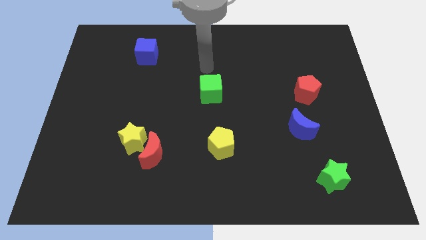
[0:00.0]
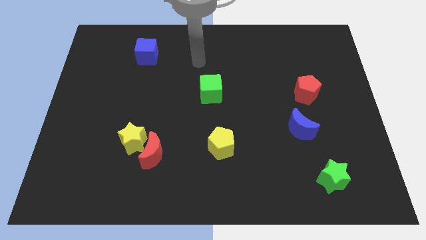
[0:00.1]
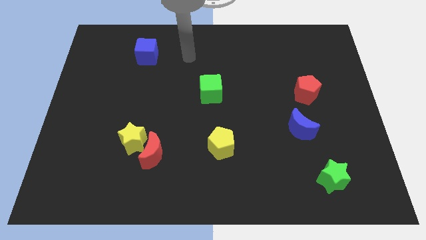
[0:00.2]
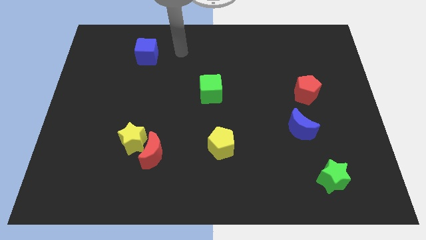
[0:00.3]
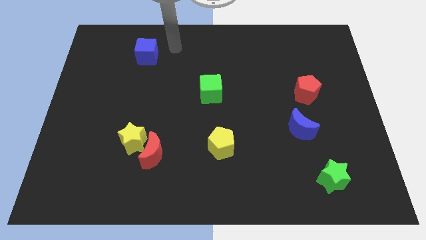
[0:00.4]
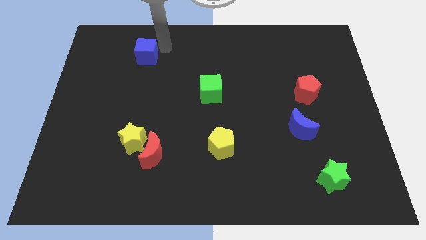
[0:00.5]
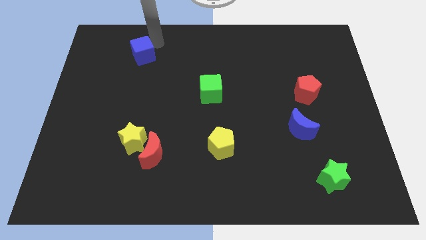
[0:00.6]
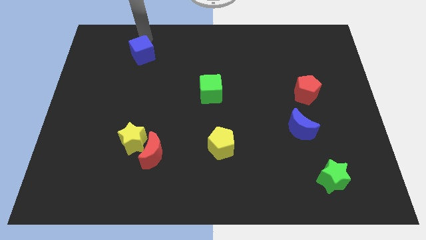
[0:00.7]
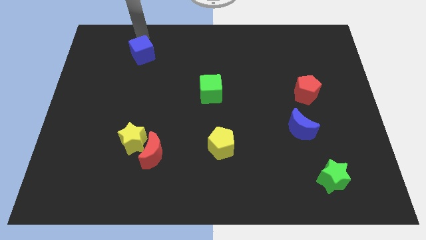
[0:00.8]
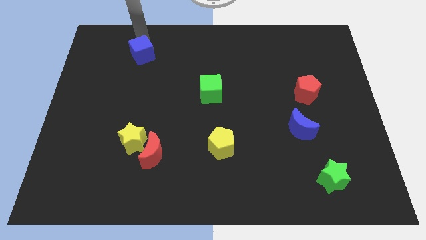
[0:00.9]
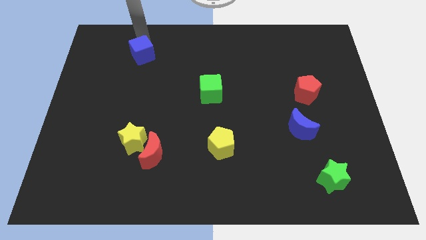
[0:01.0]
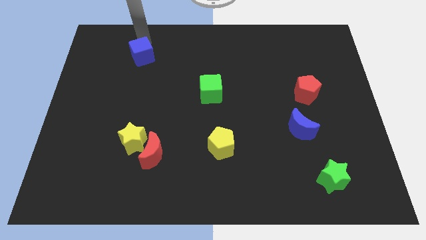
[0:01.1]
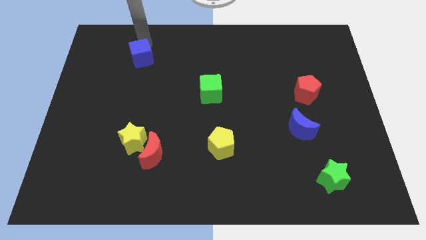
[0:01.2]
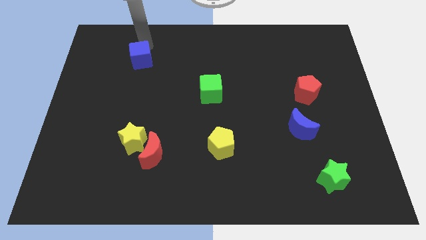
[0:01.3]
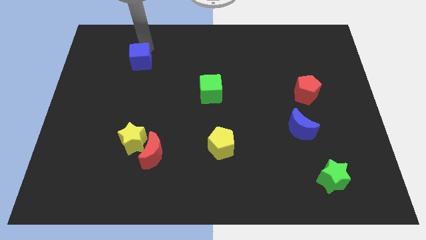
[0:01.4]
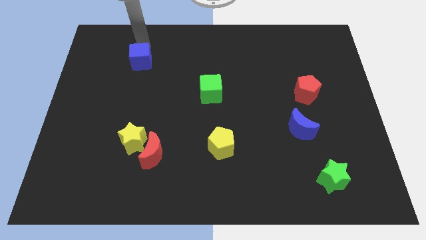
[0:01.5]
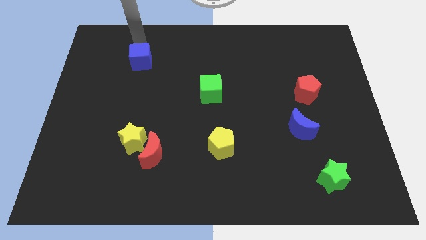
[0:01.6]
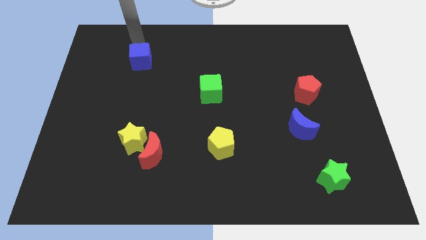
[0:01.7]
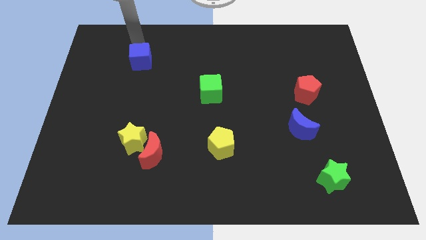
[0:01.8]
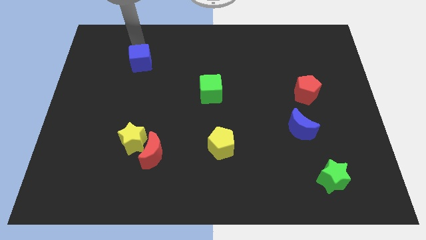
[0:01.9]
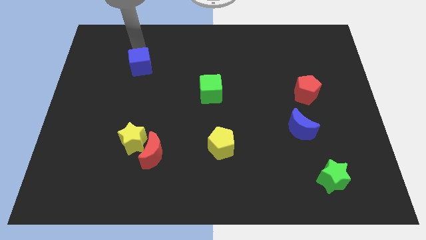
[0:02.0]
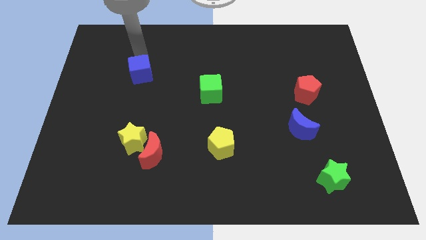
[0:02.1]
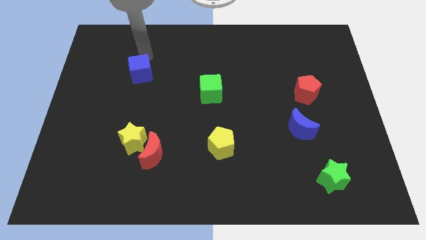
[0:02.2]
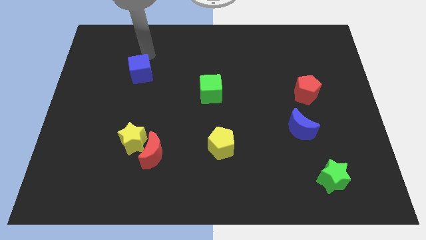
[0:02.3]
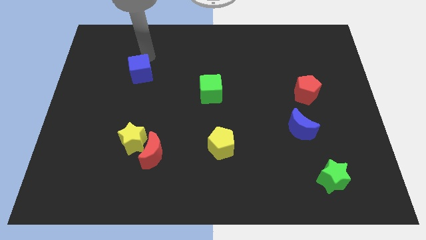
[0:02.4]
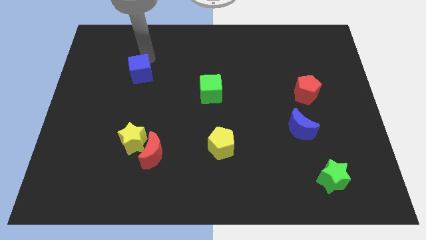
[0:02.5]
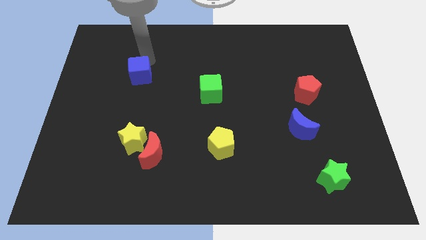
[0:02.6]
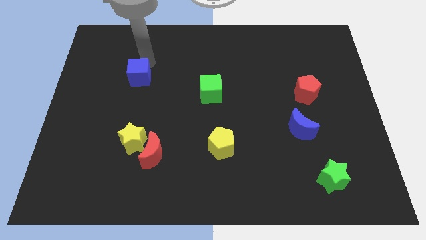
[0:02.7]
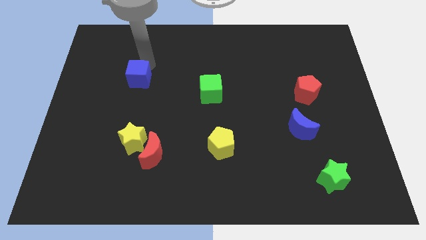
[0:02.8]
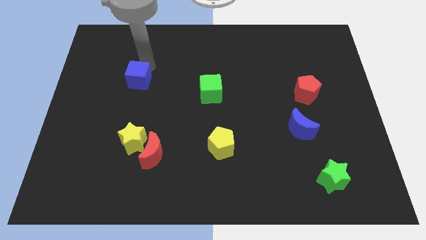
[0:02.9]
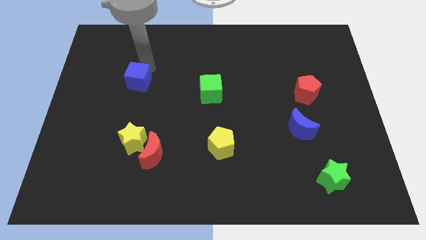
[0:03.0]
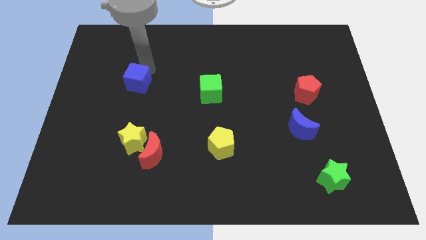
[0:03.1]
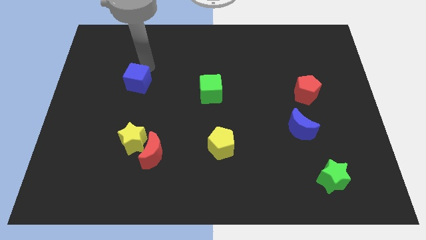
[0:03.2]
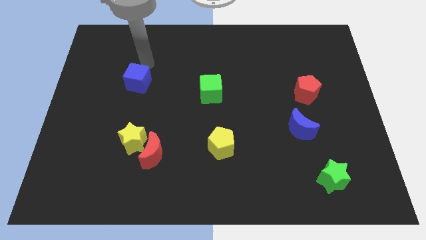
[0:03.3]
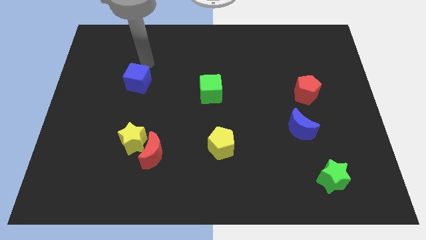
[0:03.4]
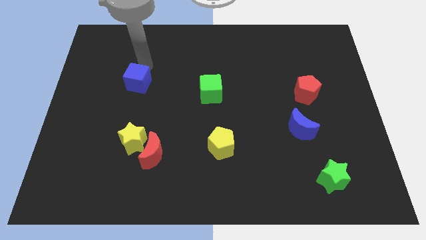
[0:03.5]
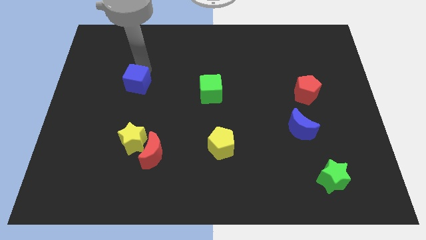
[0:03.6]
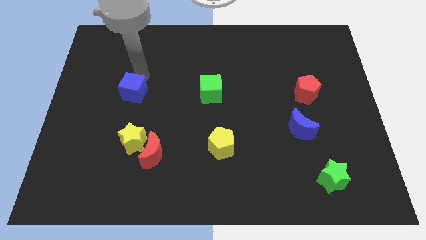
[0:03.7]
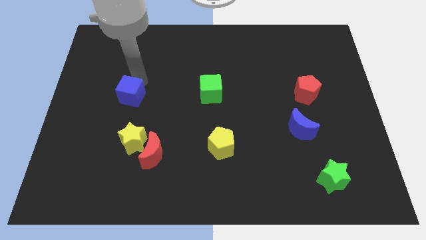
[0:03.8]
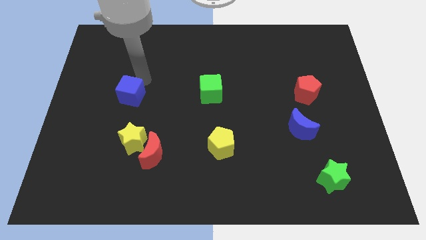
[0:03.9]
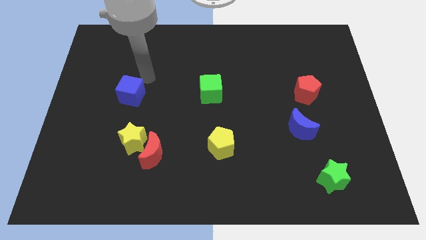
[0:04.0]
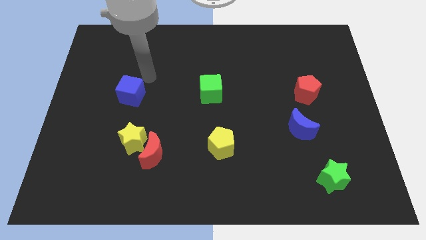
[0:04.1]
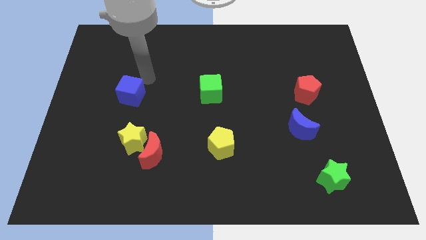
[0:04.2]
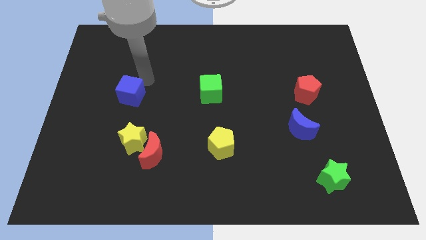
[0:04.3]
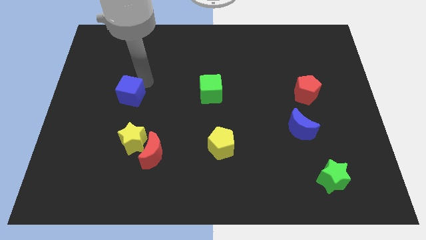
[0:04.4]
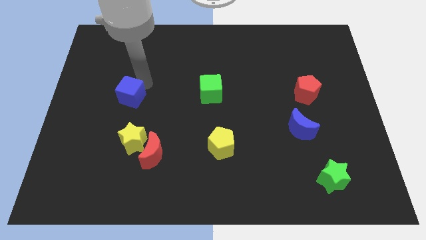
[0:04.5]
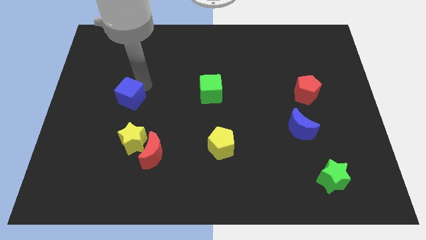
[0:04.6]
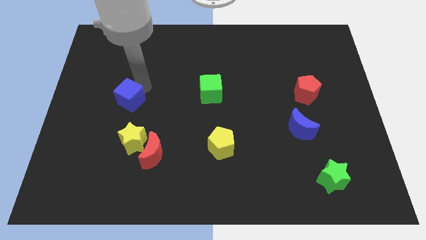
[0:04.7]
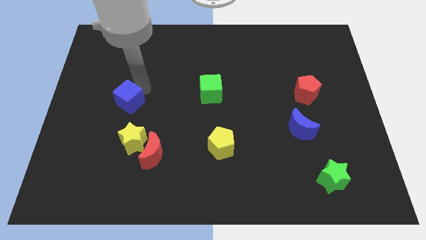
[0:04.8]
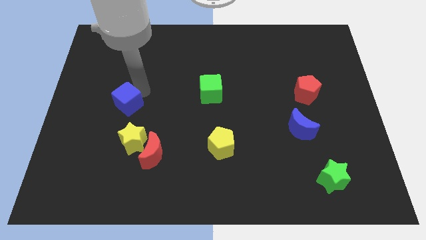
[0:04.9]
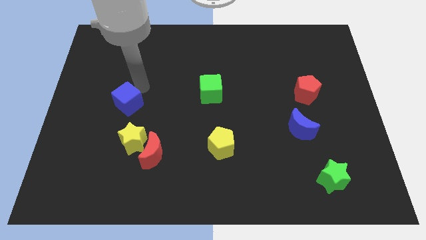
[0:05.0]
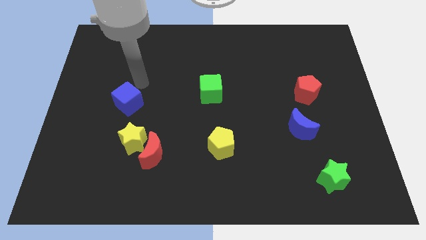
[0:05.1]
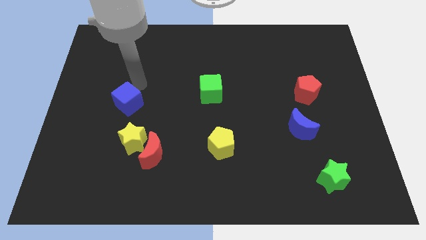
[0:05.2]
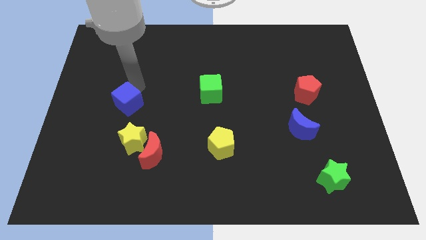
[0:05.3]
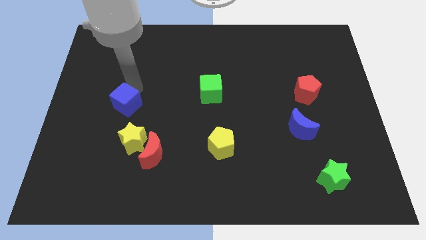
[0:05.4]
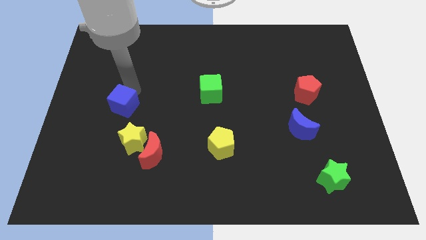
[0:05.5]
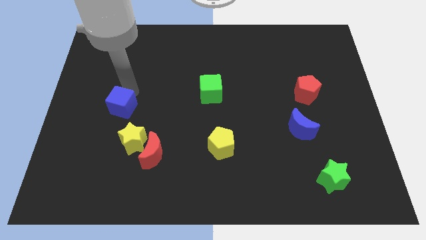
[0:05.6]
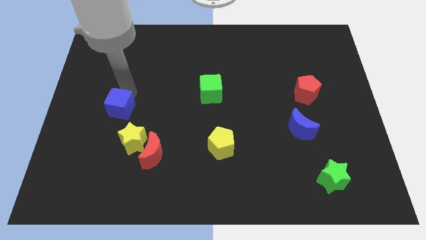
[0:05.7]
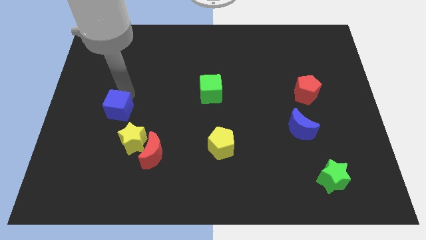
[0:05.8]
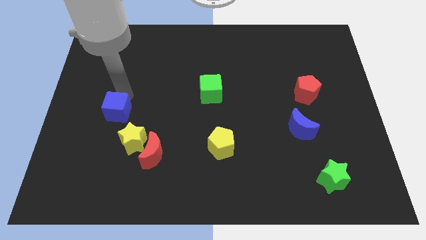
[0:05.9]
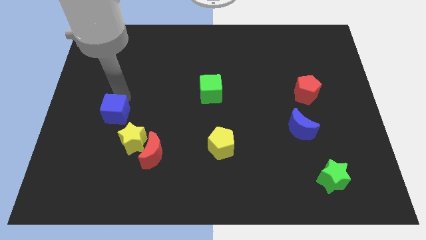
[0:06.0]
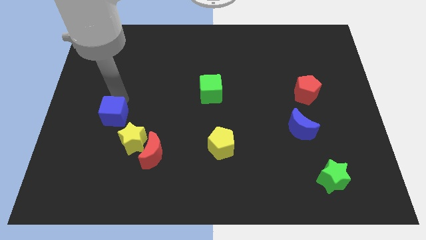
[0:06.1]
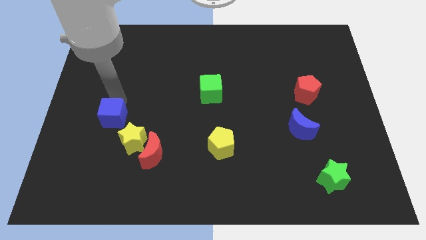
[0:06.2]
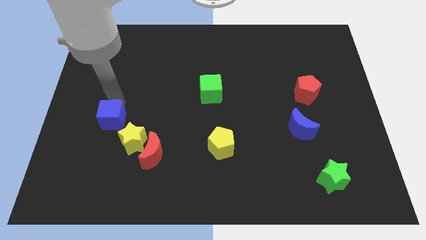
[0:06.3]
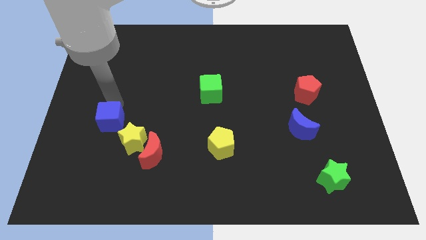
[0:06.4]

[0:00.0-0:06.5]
slide the blue cube down

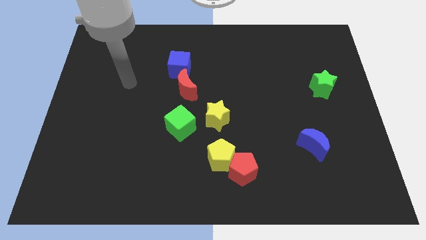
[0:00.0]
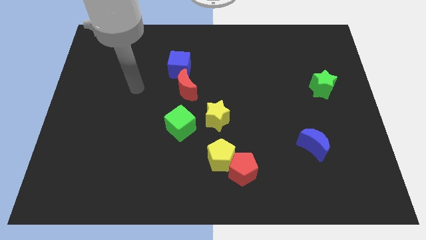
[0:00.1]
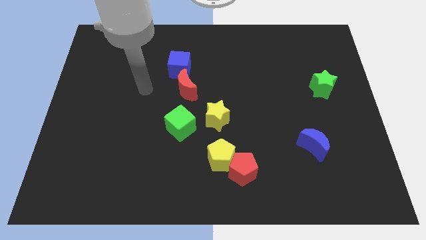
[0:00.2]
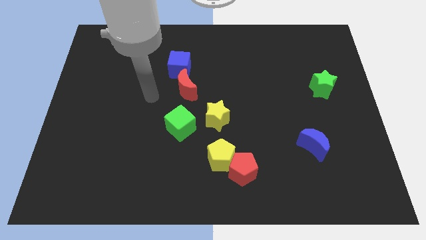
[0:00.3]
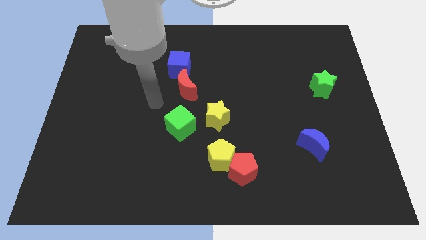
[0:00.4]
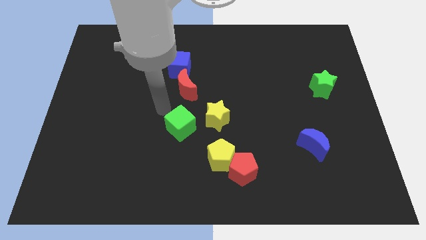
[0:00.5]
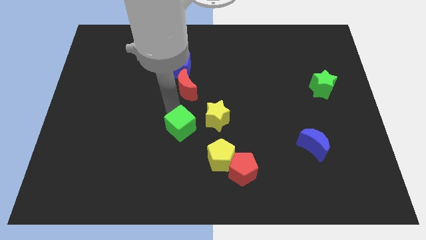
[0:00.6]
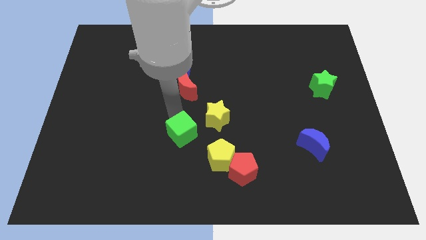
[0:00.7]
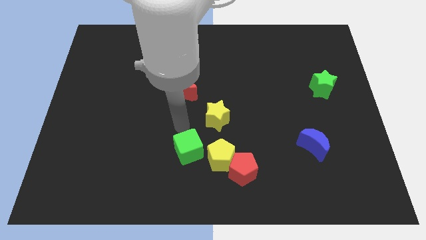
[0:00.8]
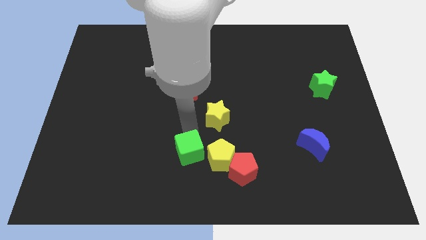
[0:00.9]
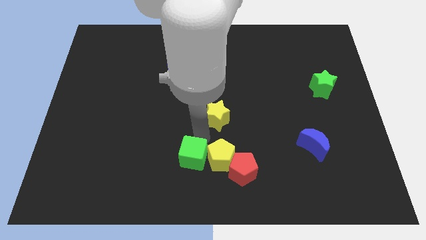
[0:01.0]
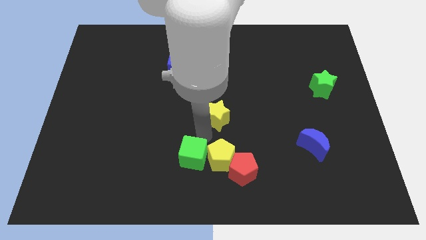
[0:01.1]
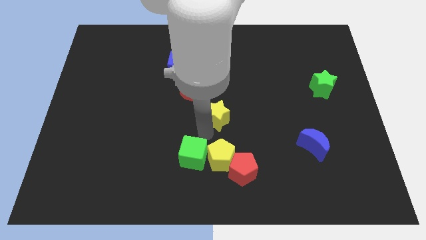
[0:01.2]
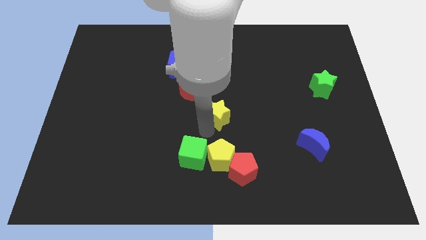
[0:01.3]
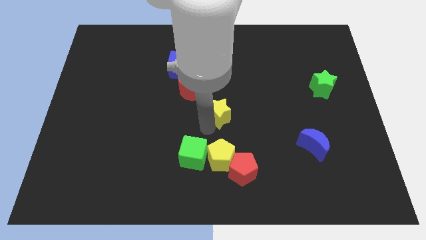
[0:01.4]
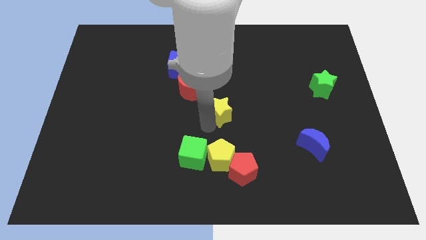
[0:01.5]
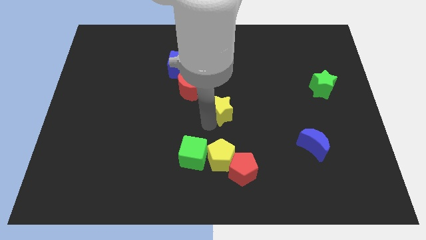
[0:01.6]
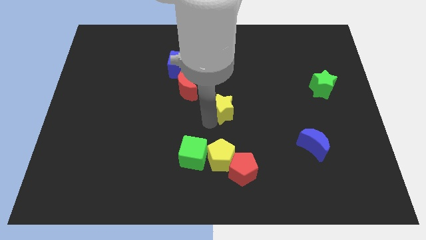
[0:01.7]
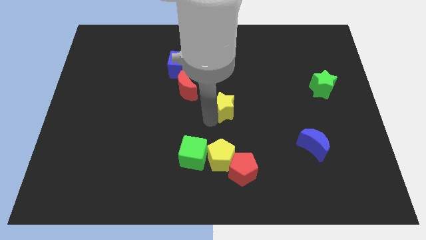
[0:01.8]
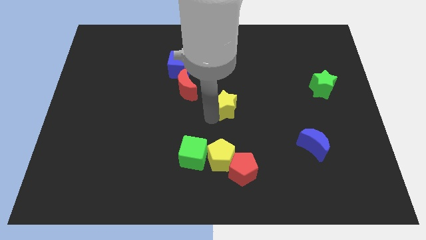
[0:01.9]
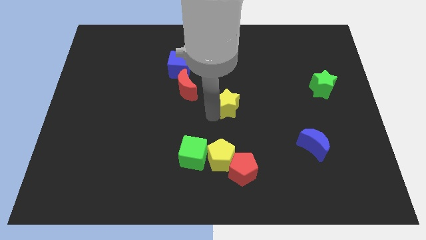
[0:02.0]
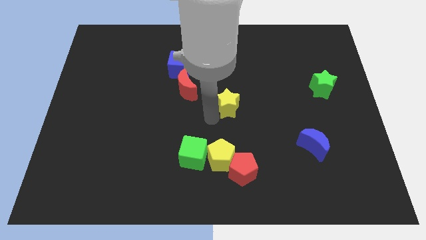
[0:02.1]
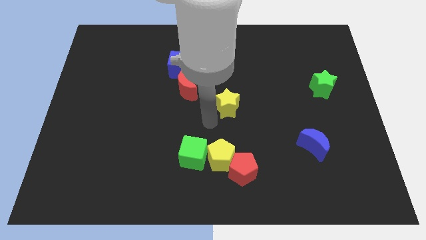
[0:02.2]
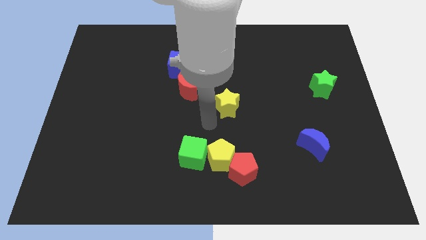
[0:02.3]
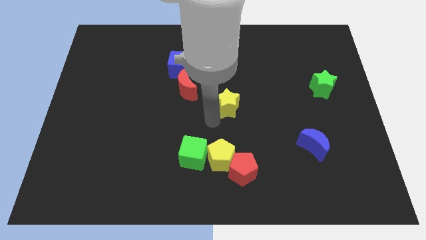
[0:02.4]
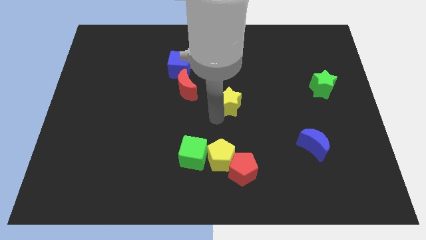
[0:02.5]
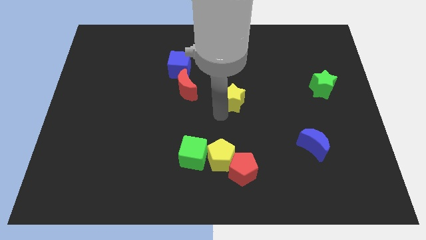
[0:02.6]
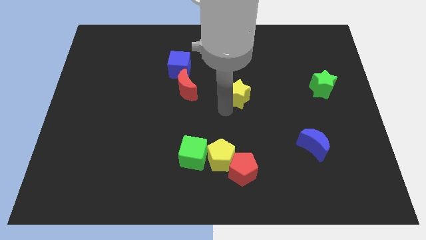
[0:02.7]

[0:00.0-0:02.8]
slide the yellow star a little bit upwards and right diagonally
